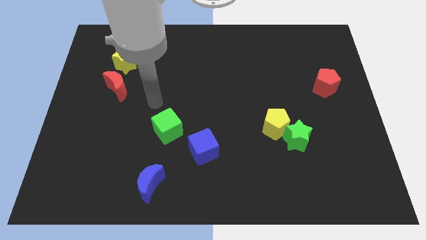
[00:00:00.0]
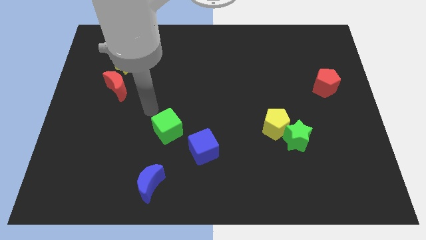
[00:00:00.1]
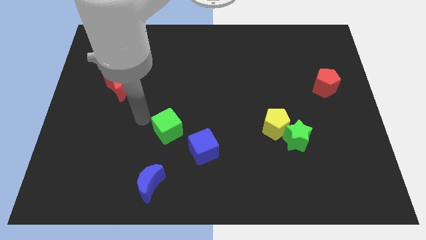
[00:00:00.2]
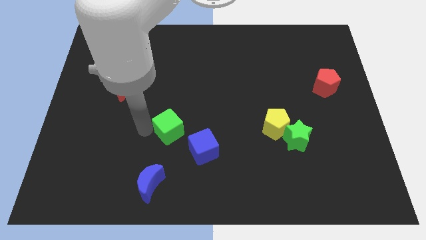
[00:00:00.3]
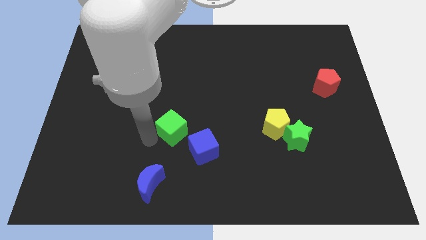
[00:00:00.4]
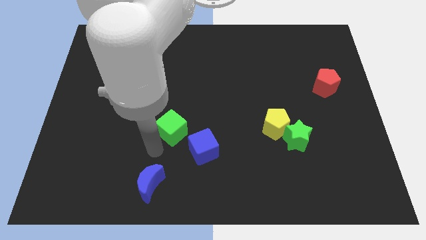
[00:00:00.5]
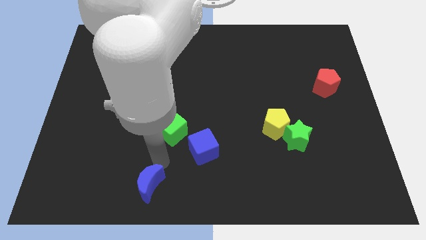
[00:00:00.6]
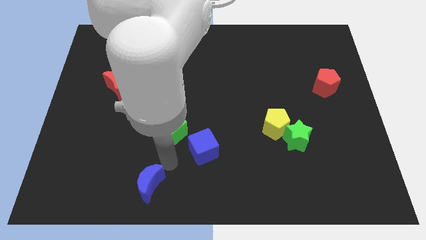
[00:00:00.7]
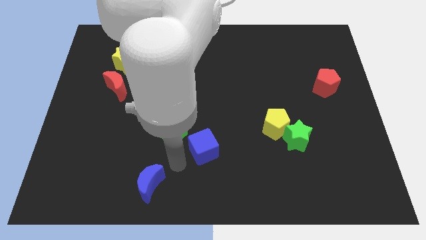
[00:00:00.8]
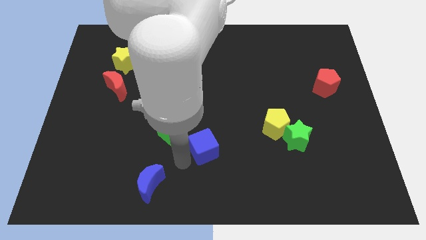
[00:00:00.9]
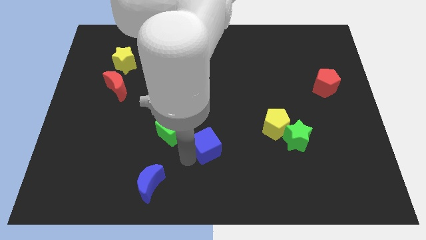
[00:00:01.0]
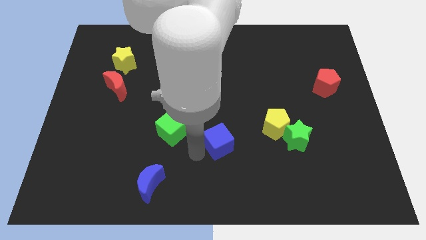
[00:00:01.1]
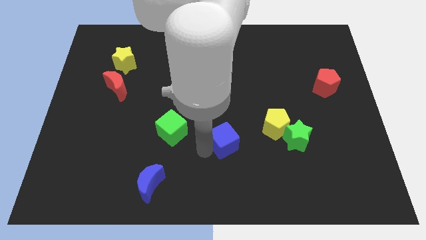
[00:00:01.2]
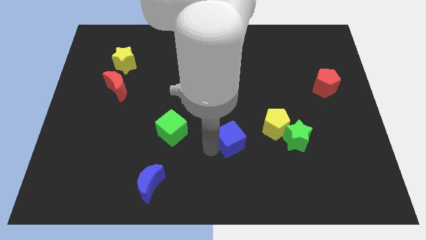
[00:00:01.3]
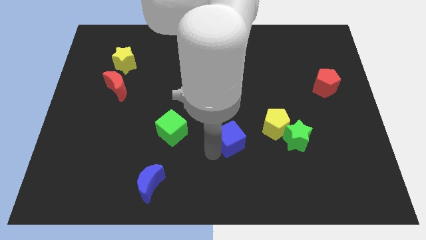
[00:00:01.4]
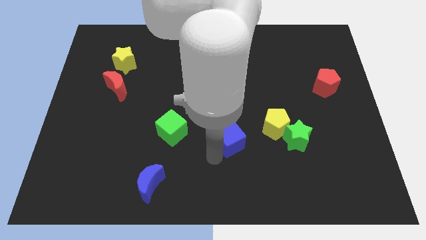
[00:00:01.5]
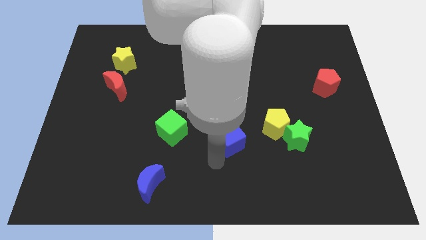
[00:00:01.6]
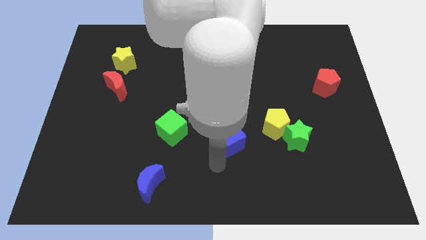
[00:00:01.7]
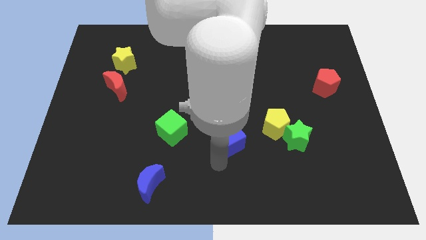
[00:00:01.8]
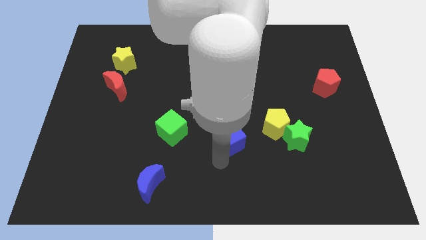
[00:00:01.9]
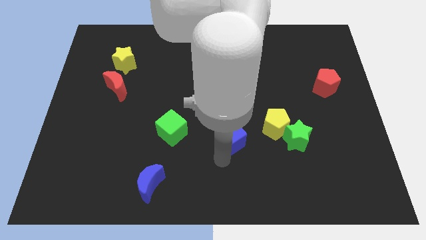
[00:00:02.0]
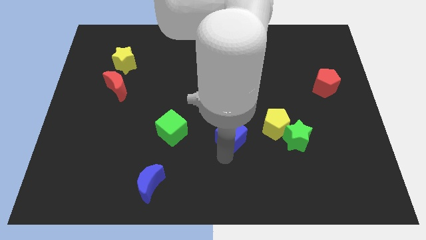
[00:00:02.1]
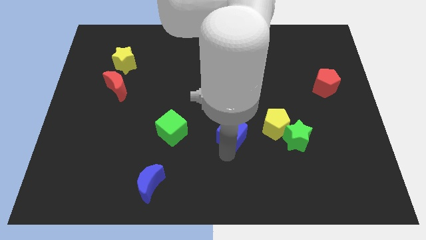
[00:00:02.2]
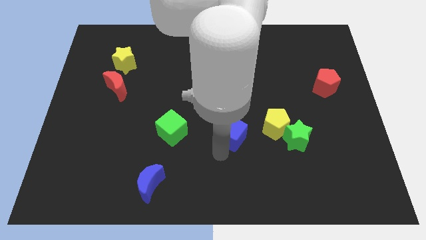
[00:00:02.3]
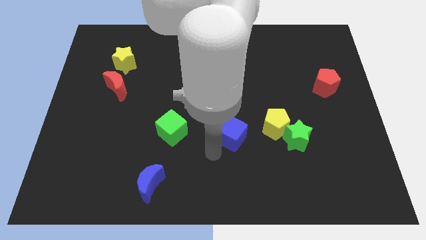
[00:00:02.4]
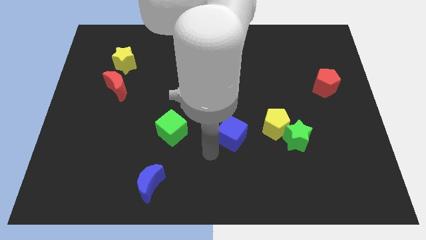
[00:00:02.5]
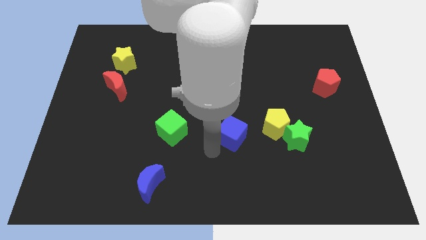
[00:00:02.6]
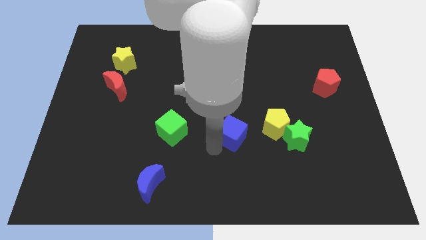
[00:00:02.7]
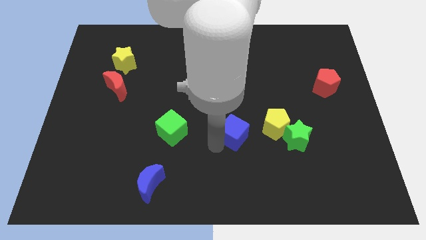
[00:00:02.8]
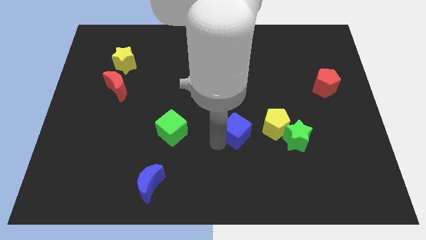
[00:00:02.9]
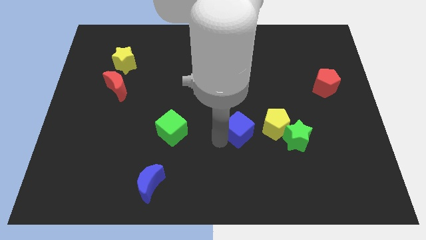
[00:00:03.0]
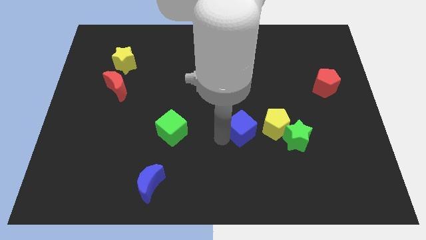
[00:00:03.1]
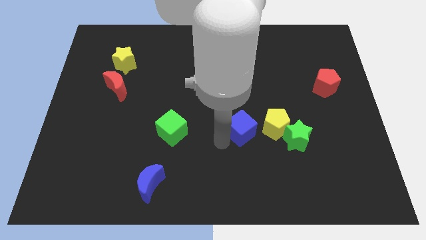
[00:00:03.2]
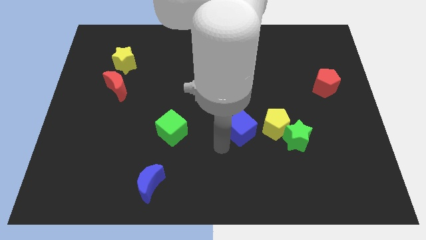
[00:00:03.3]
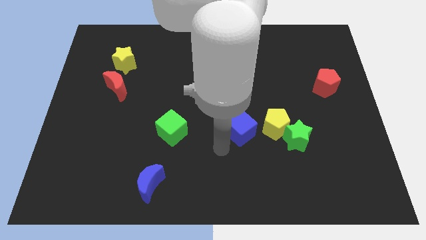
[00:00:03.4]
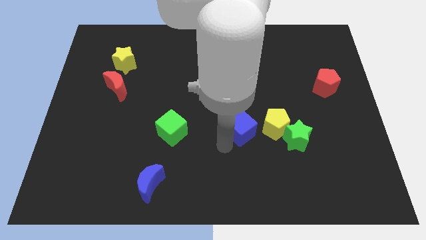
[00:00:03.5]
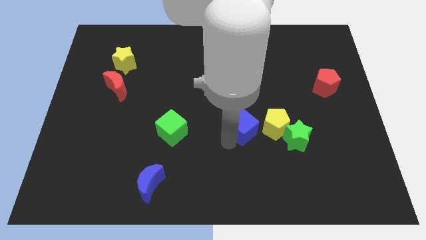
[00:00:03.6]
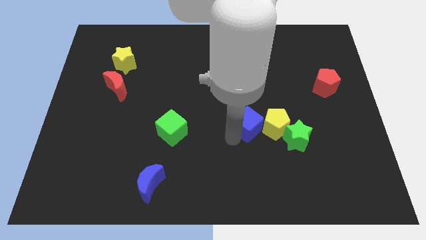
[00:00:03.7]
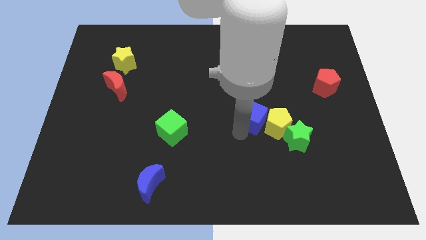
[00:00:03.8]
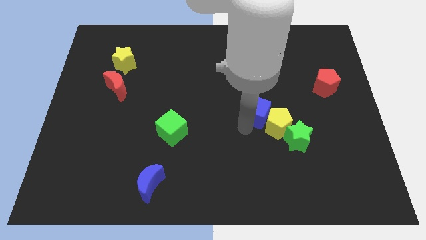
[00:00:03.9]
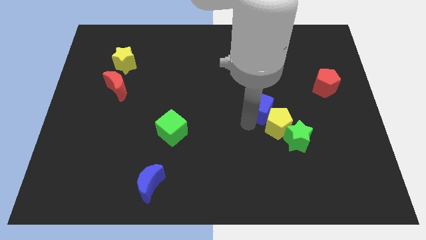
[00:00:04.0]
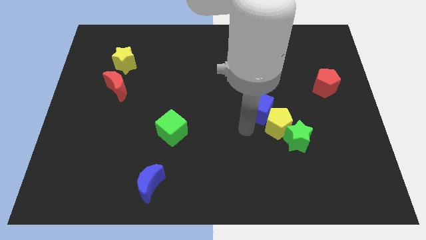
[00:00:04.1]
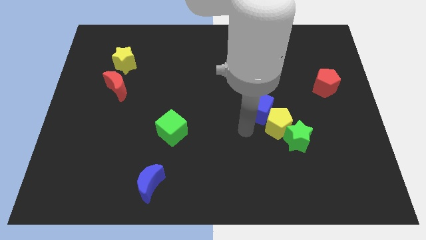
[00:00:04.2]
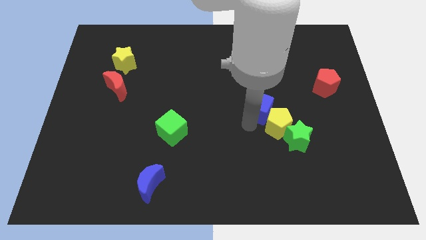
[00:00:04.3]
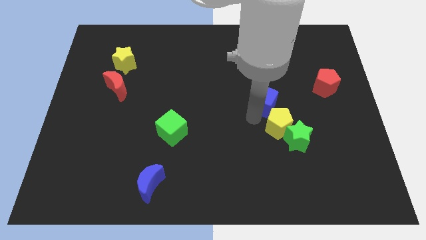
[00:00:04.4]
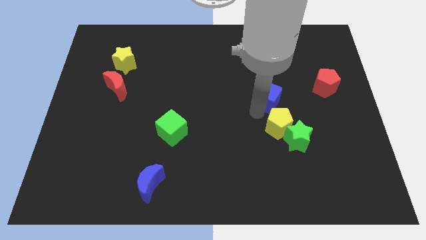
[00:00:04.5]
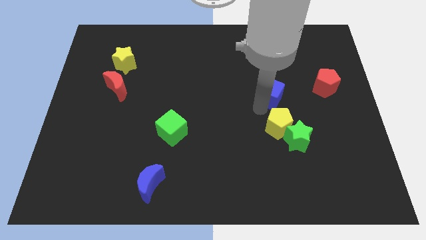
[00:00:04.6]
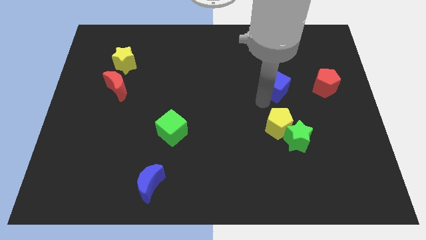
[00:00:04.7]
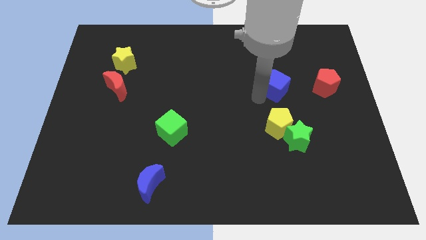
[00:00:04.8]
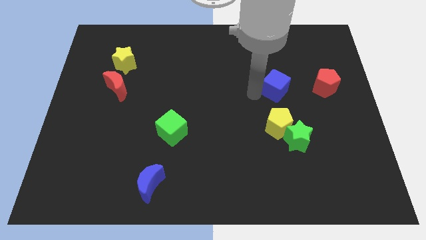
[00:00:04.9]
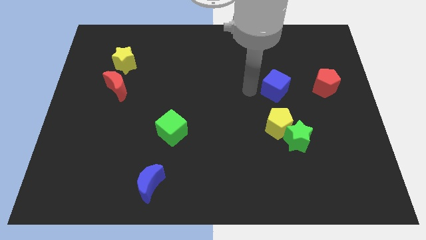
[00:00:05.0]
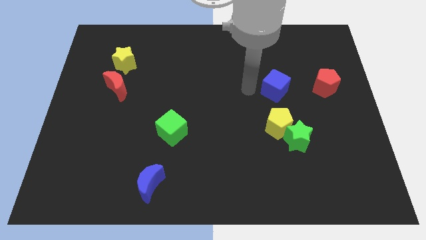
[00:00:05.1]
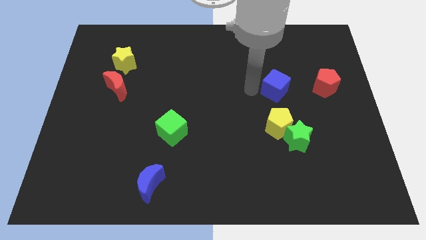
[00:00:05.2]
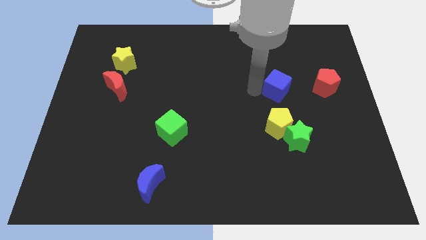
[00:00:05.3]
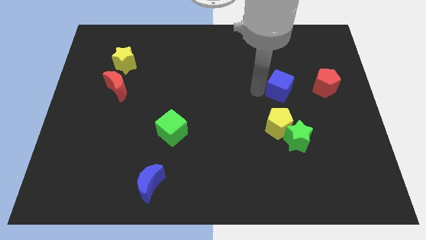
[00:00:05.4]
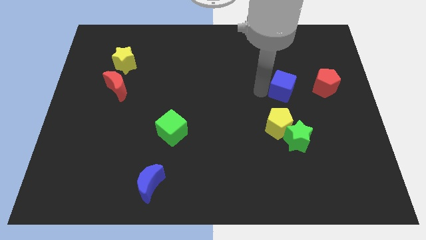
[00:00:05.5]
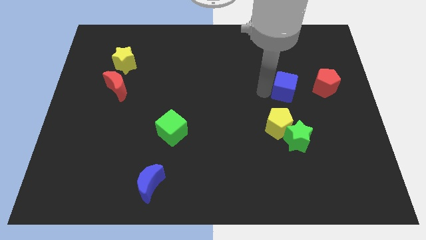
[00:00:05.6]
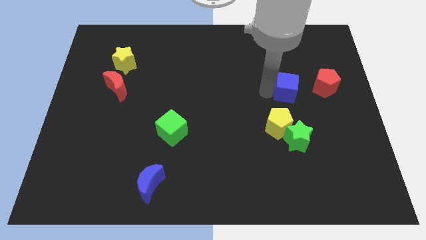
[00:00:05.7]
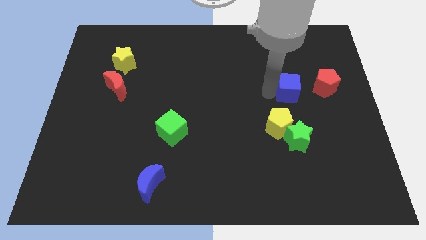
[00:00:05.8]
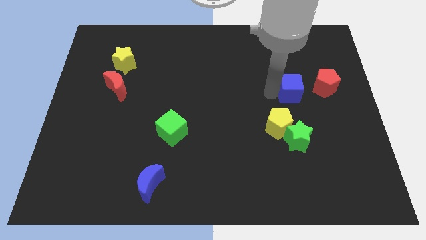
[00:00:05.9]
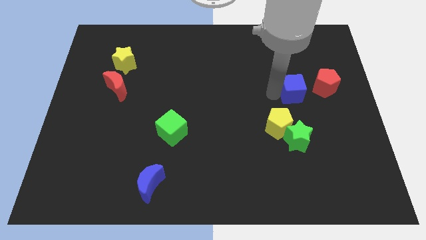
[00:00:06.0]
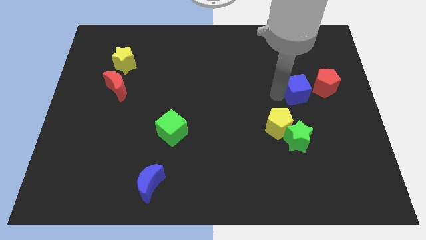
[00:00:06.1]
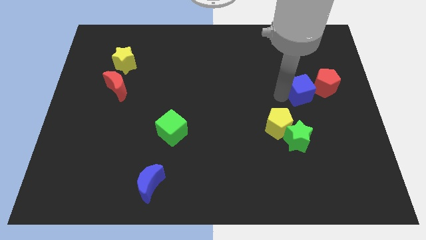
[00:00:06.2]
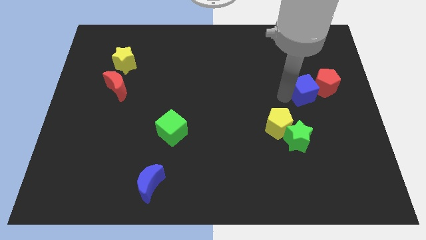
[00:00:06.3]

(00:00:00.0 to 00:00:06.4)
put the blue cube to the red pentagon

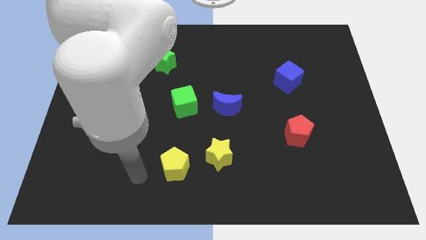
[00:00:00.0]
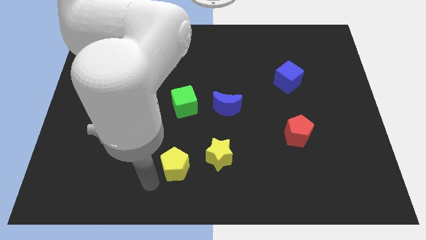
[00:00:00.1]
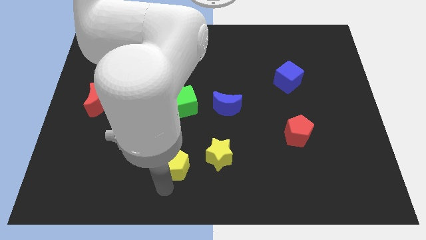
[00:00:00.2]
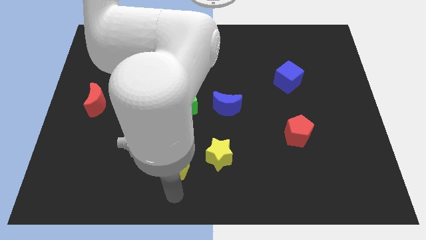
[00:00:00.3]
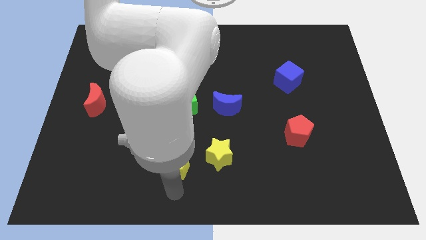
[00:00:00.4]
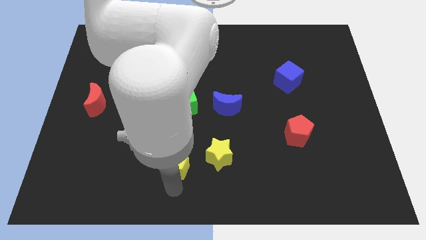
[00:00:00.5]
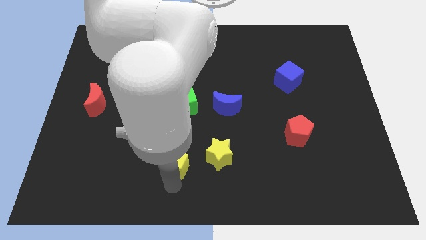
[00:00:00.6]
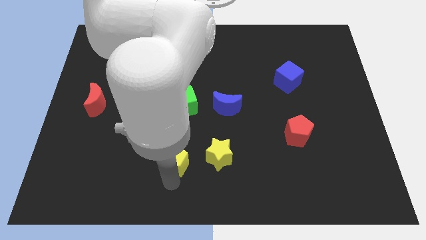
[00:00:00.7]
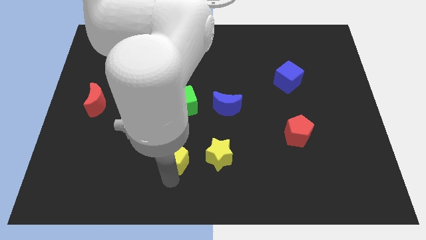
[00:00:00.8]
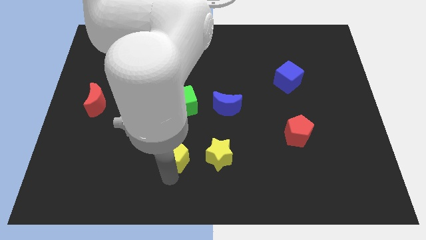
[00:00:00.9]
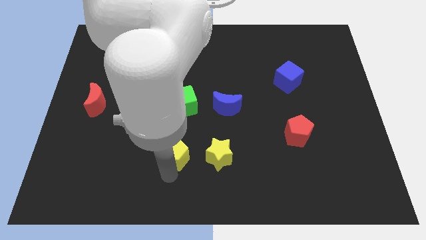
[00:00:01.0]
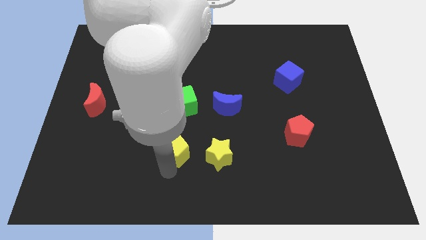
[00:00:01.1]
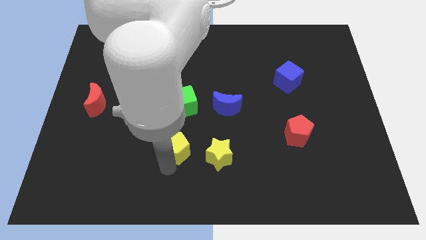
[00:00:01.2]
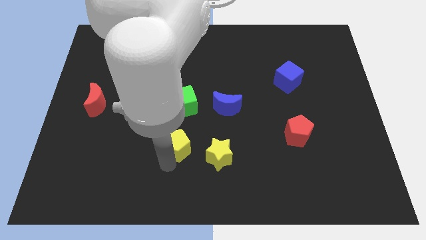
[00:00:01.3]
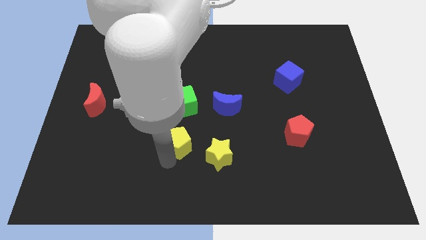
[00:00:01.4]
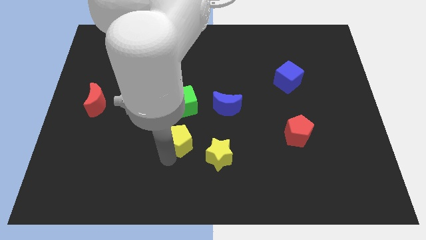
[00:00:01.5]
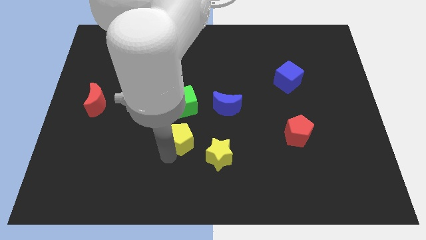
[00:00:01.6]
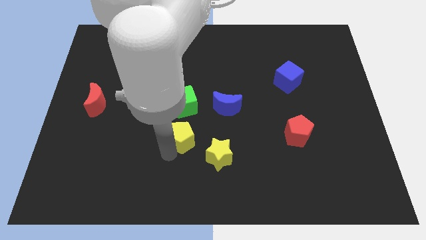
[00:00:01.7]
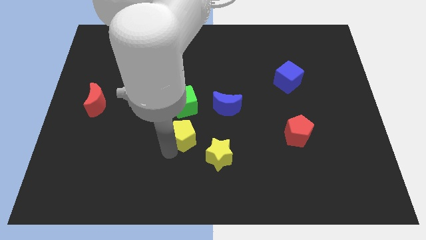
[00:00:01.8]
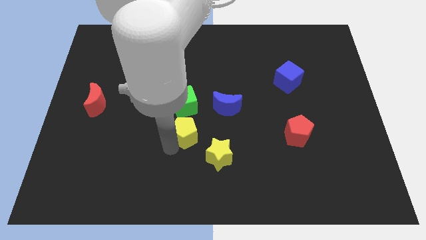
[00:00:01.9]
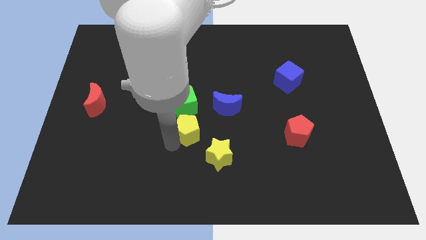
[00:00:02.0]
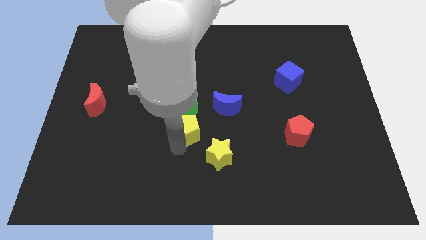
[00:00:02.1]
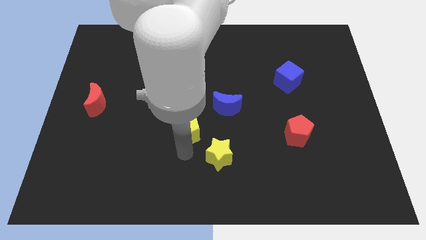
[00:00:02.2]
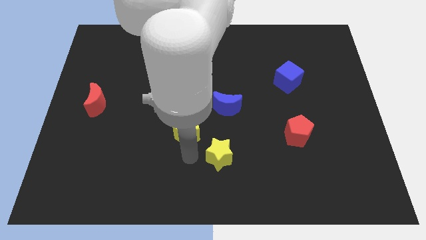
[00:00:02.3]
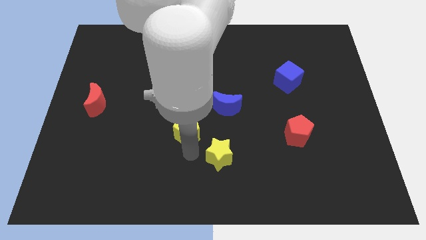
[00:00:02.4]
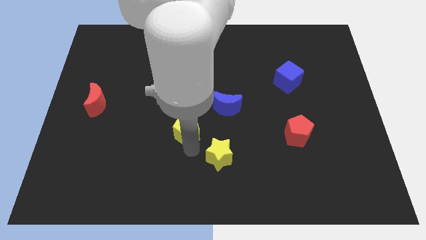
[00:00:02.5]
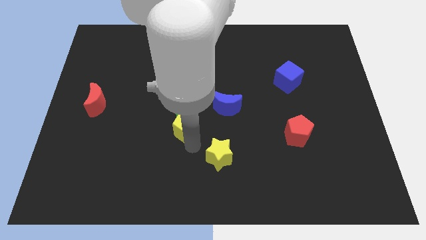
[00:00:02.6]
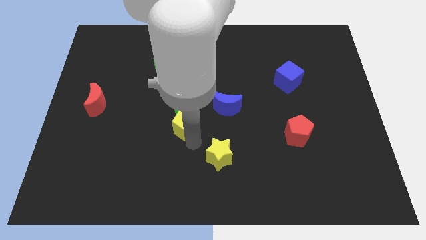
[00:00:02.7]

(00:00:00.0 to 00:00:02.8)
move the yellow pentagon towards the green cube
